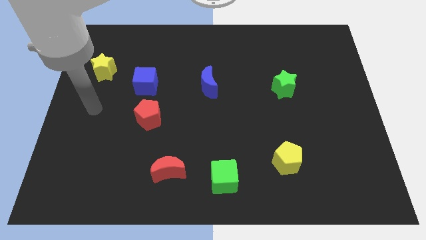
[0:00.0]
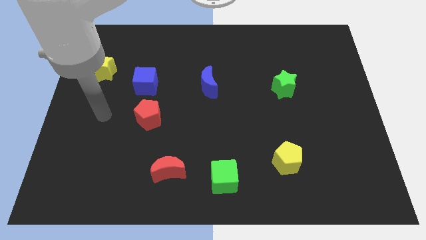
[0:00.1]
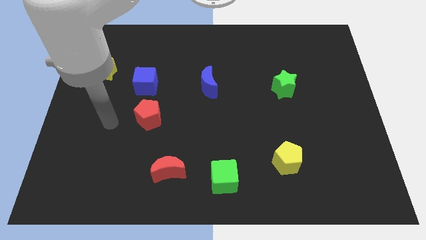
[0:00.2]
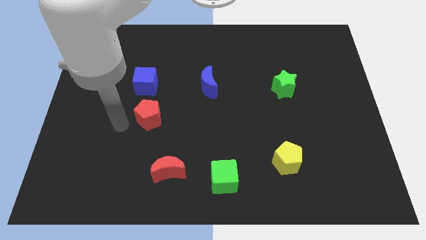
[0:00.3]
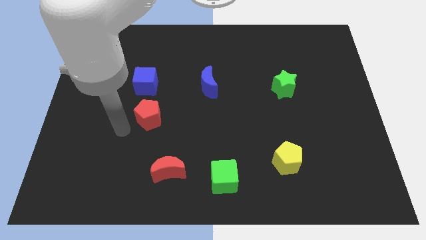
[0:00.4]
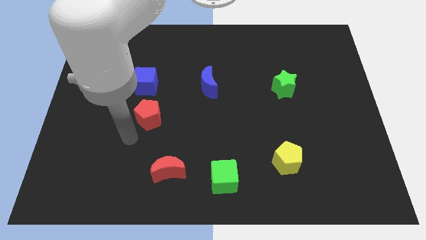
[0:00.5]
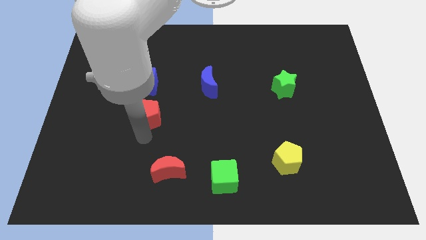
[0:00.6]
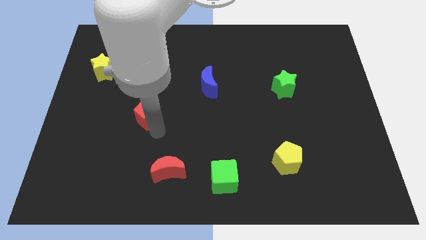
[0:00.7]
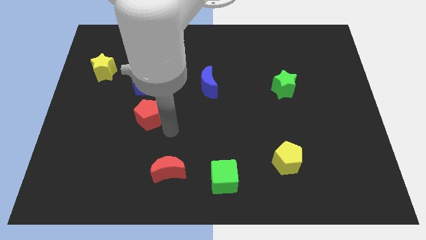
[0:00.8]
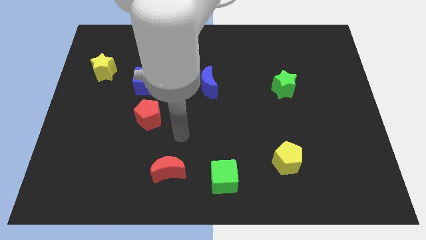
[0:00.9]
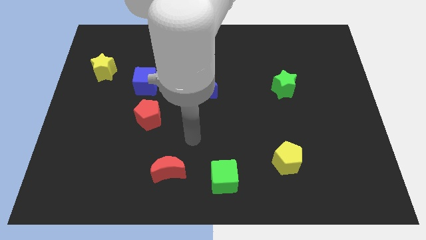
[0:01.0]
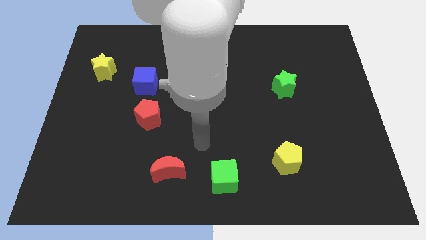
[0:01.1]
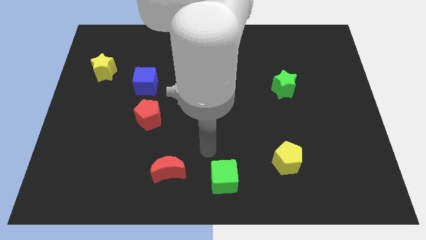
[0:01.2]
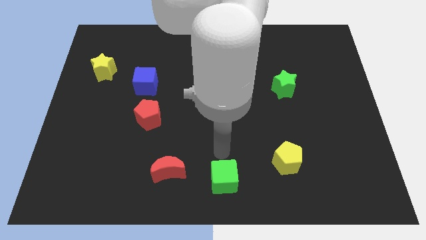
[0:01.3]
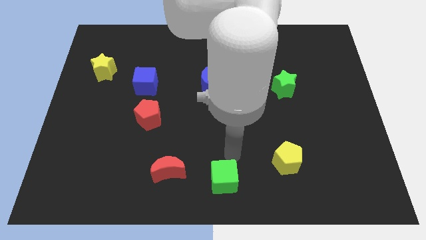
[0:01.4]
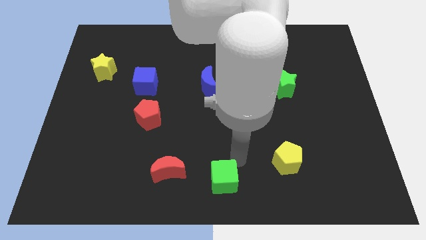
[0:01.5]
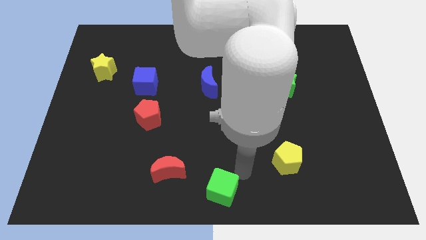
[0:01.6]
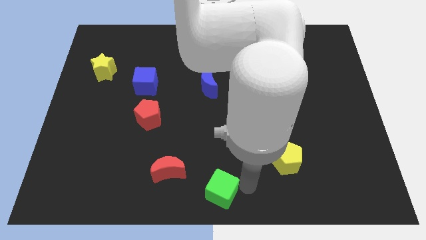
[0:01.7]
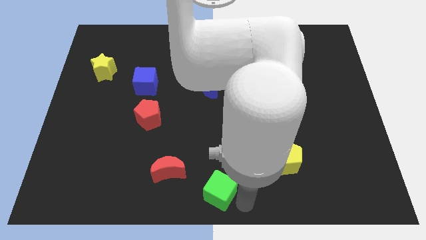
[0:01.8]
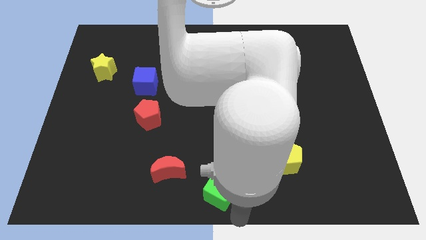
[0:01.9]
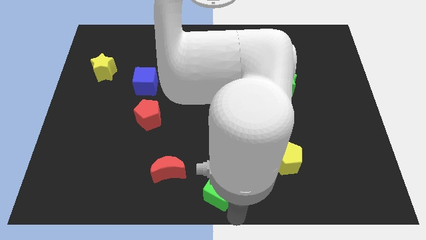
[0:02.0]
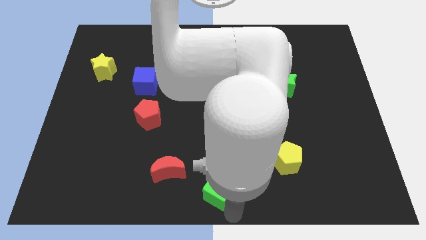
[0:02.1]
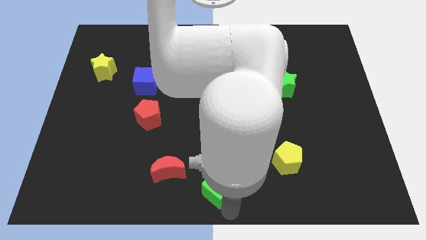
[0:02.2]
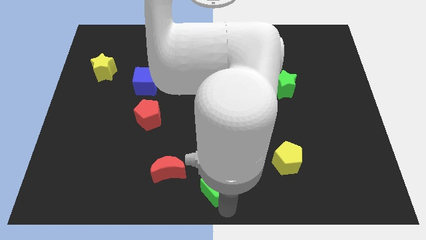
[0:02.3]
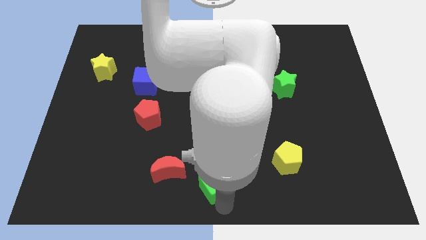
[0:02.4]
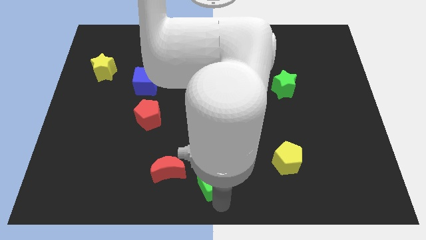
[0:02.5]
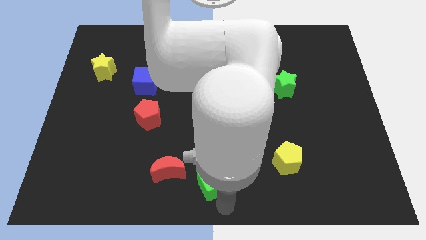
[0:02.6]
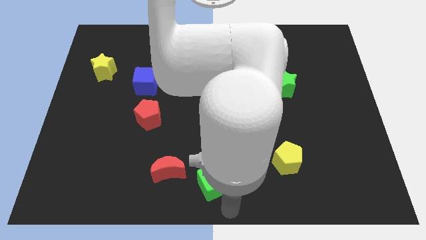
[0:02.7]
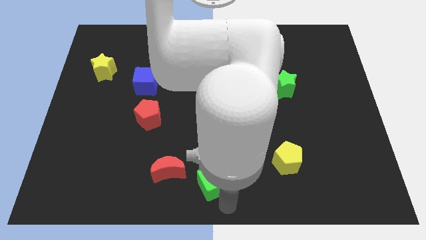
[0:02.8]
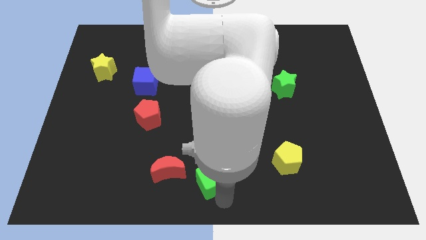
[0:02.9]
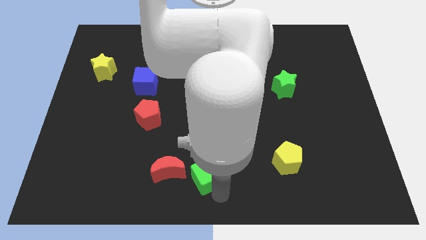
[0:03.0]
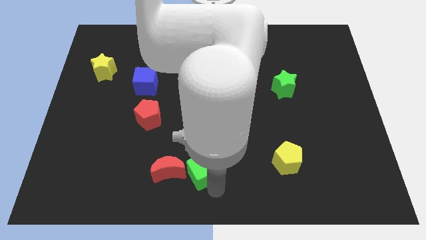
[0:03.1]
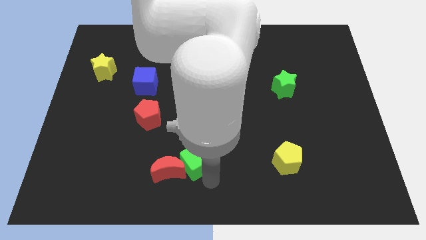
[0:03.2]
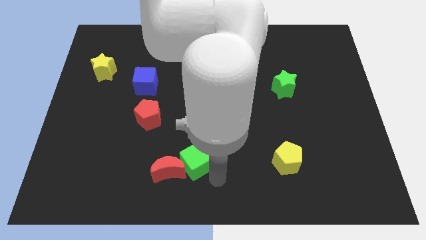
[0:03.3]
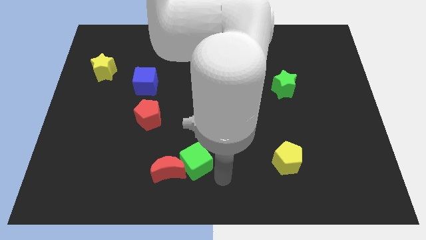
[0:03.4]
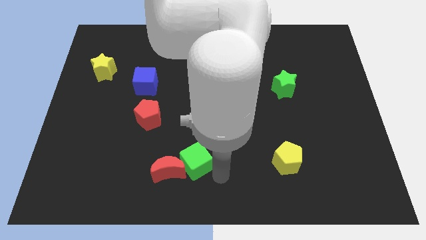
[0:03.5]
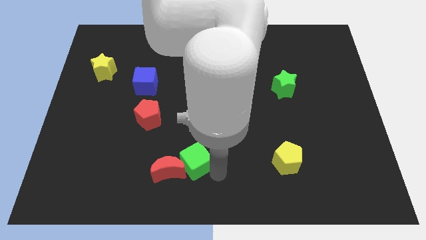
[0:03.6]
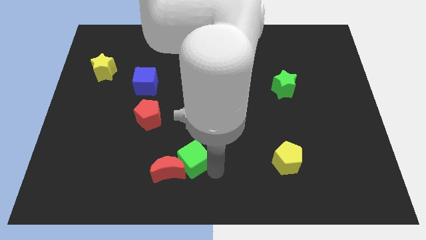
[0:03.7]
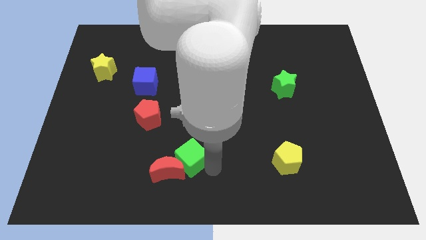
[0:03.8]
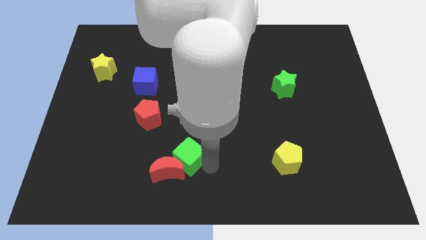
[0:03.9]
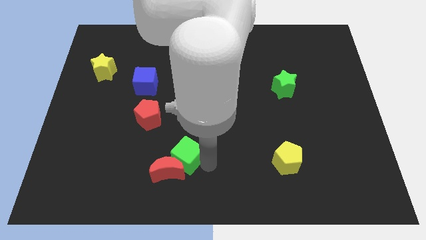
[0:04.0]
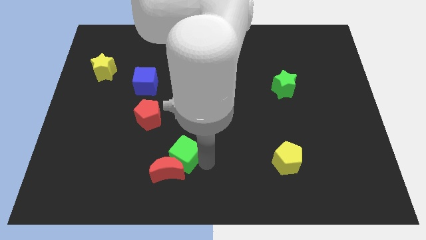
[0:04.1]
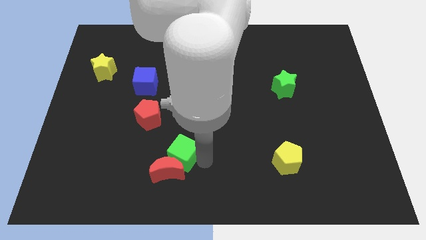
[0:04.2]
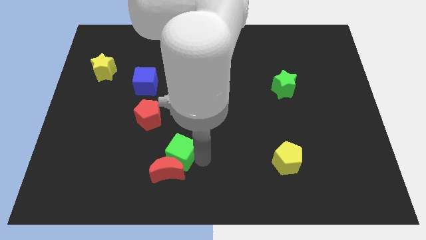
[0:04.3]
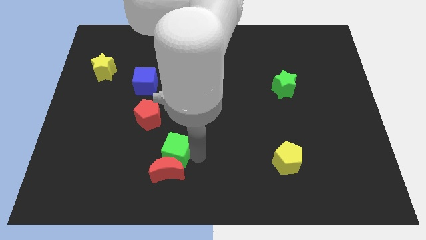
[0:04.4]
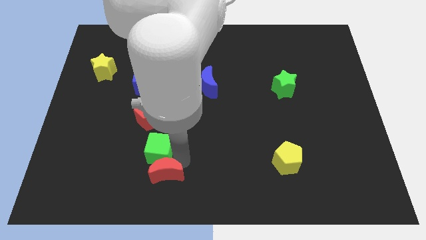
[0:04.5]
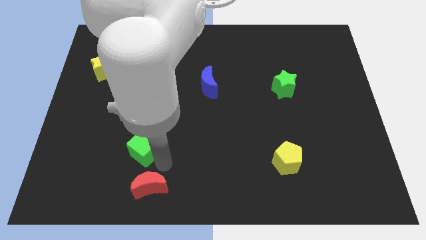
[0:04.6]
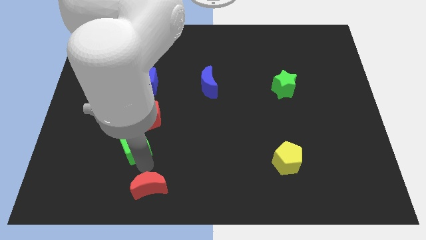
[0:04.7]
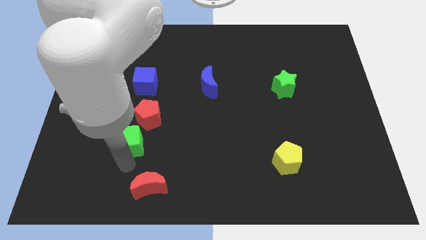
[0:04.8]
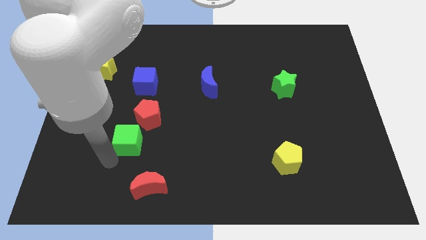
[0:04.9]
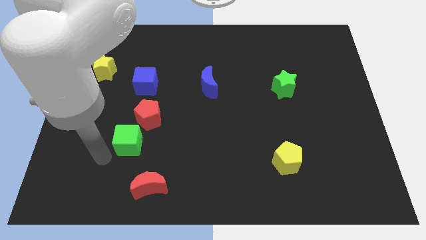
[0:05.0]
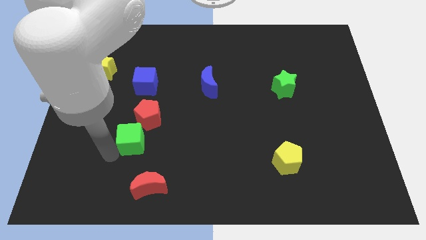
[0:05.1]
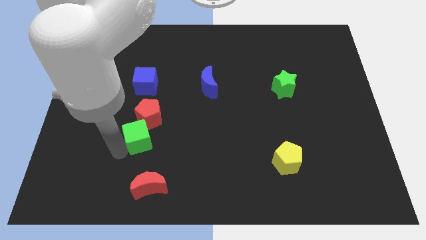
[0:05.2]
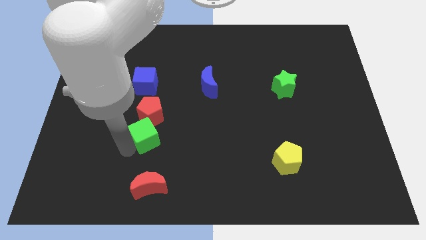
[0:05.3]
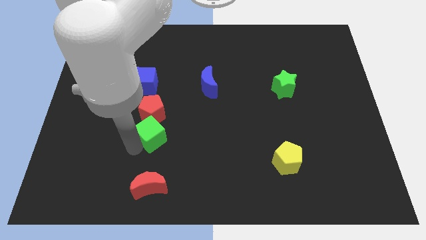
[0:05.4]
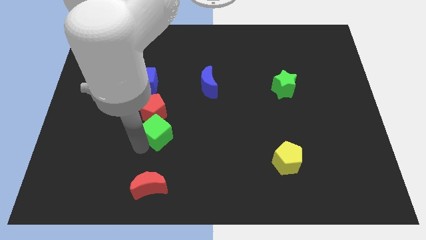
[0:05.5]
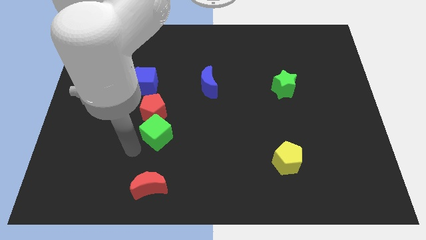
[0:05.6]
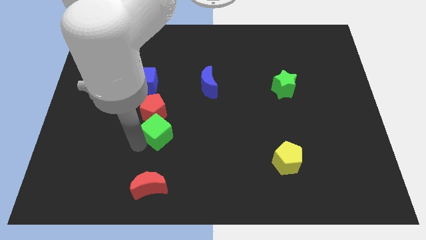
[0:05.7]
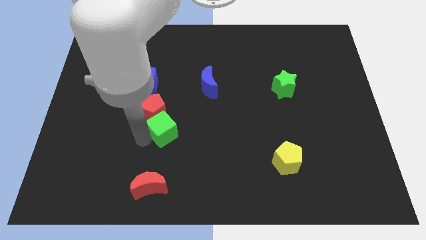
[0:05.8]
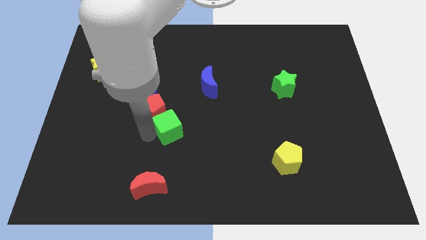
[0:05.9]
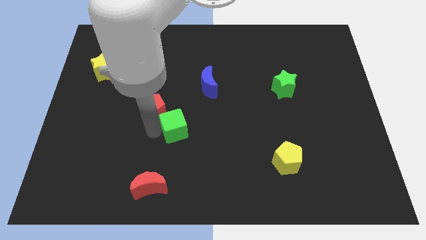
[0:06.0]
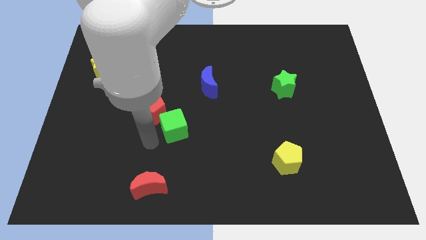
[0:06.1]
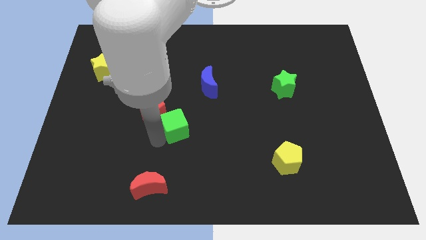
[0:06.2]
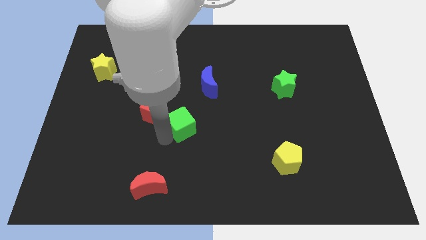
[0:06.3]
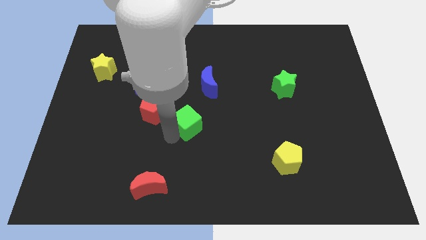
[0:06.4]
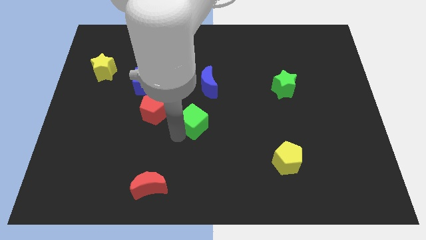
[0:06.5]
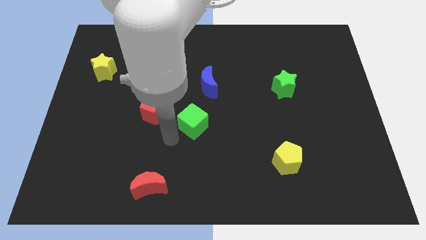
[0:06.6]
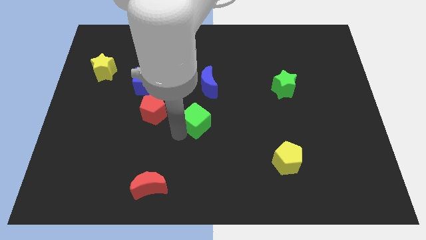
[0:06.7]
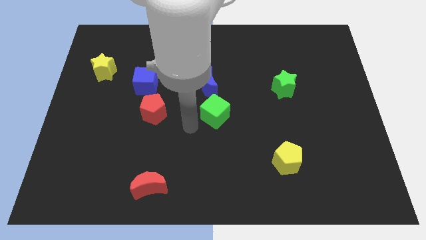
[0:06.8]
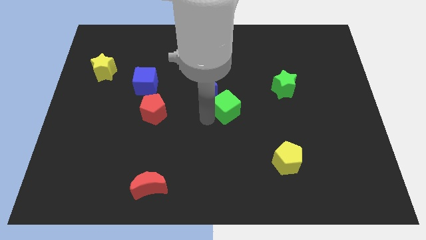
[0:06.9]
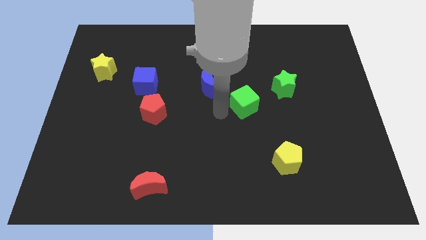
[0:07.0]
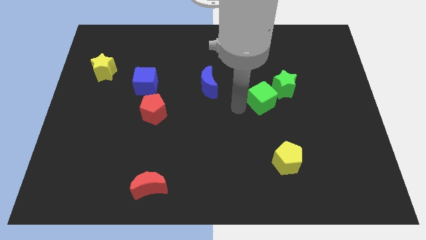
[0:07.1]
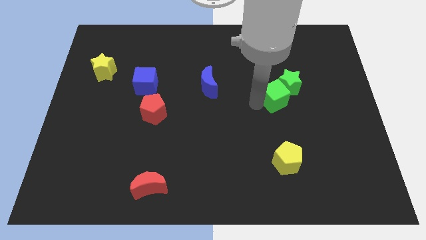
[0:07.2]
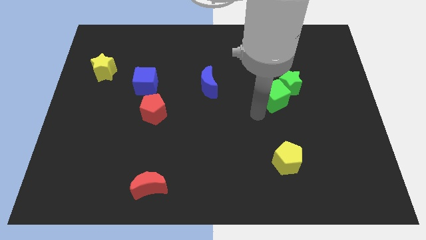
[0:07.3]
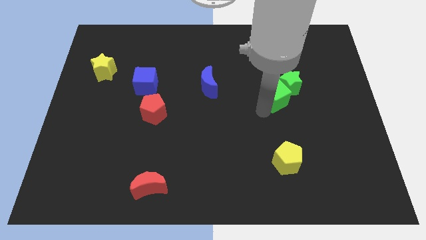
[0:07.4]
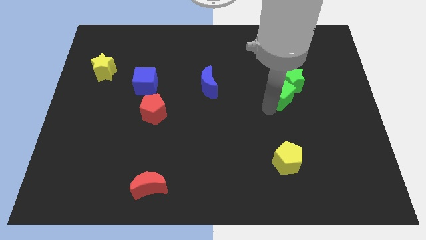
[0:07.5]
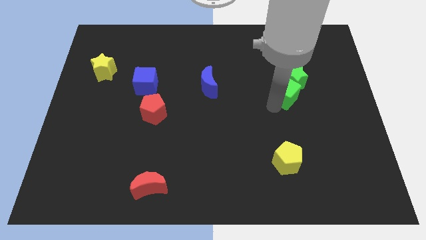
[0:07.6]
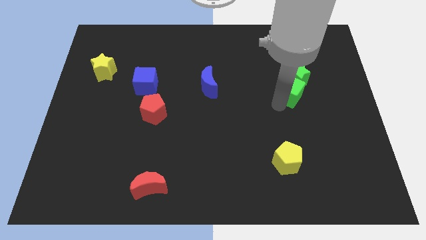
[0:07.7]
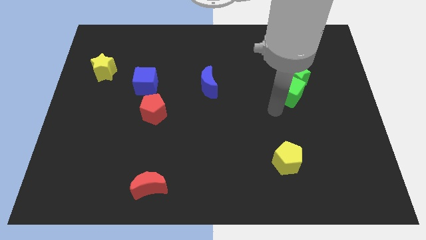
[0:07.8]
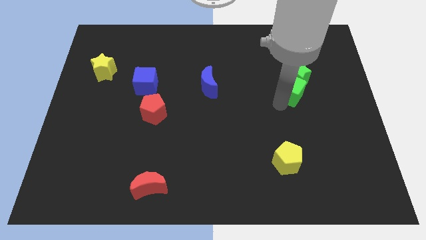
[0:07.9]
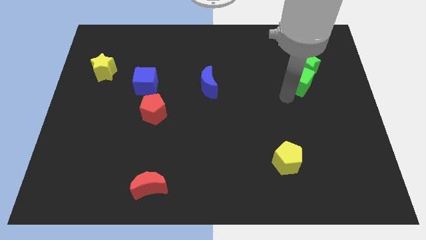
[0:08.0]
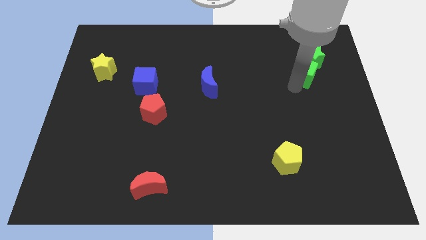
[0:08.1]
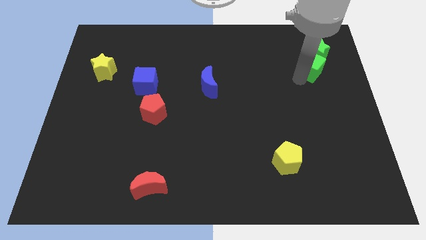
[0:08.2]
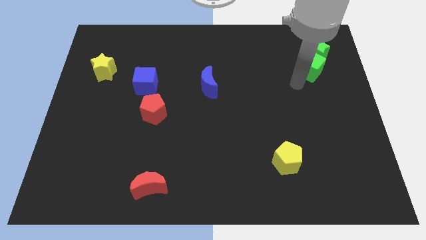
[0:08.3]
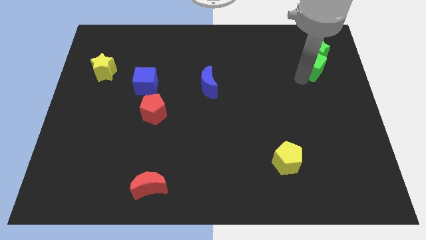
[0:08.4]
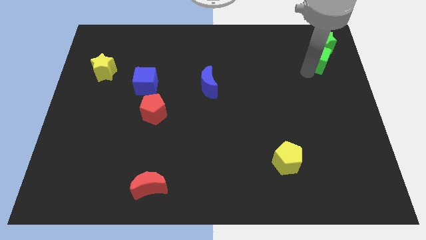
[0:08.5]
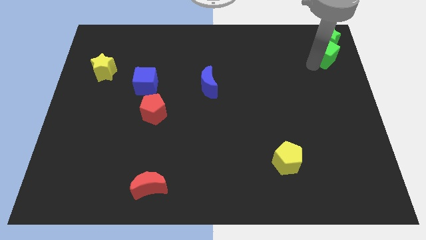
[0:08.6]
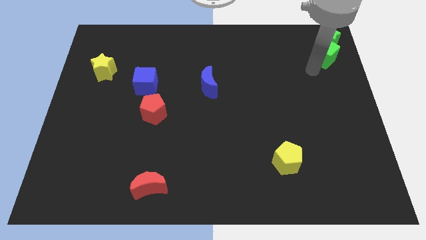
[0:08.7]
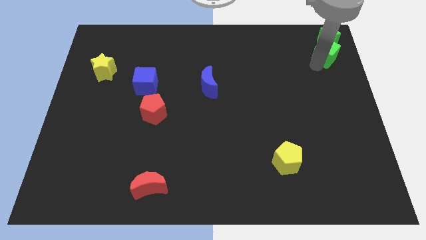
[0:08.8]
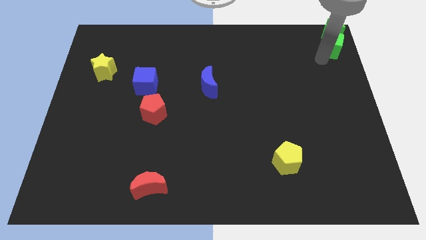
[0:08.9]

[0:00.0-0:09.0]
put the green cube to the top right corner
